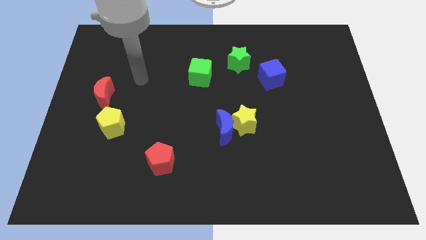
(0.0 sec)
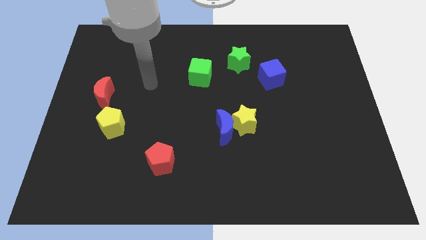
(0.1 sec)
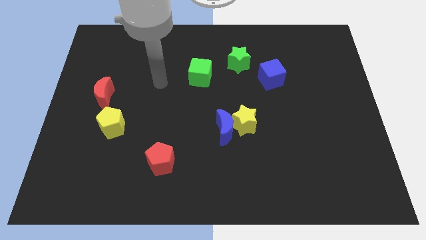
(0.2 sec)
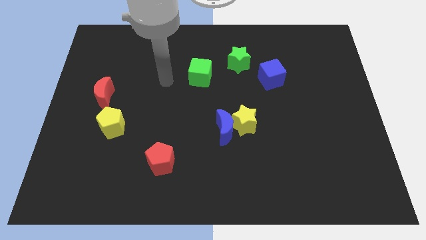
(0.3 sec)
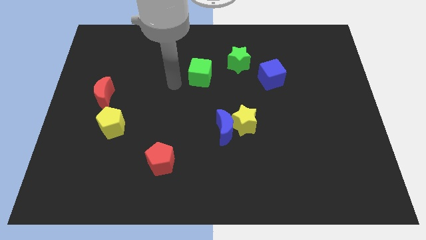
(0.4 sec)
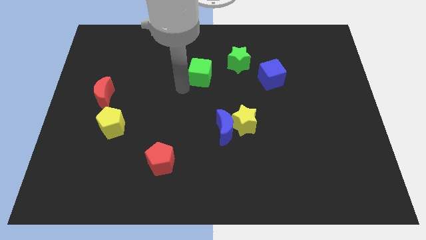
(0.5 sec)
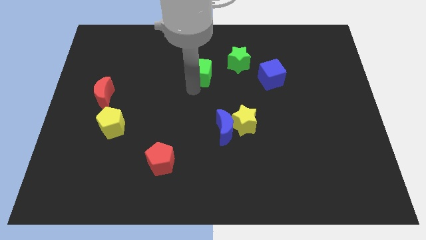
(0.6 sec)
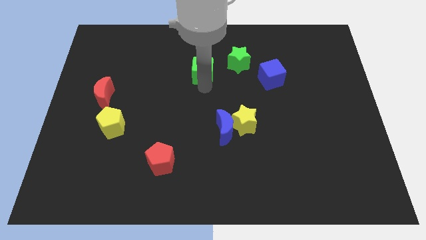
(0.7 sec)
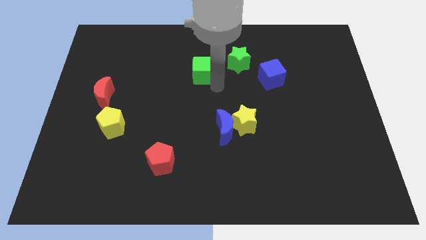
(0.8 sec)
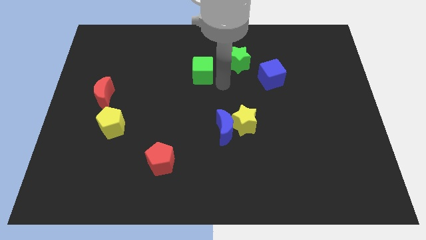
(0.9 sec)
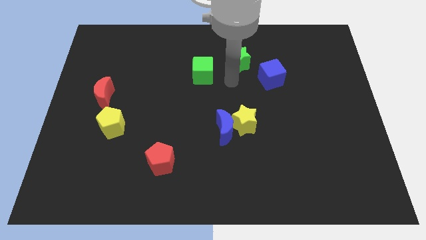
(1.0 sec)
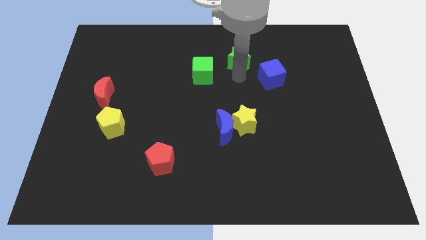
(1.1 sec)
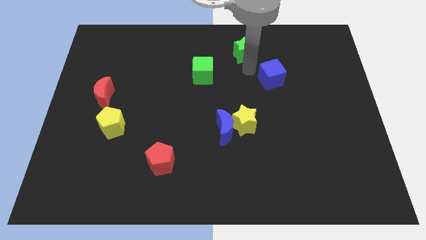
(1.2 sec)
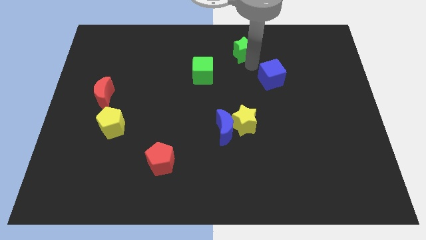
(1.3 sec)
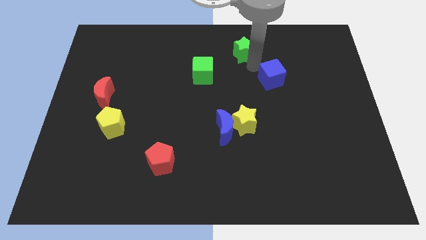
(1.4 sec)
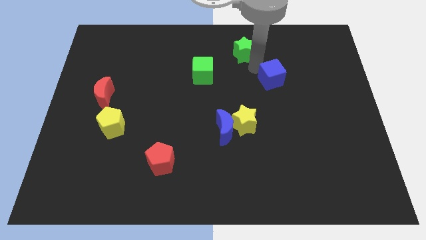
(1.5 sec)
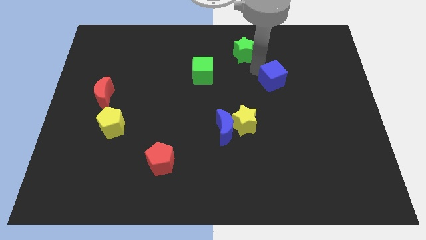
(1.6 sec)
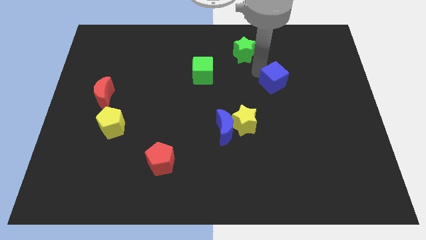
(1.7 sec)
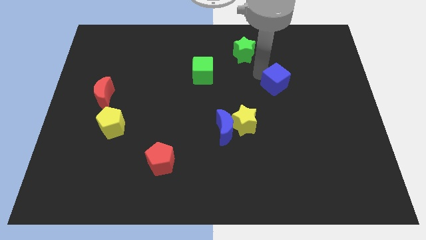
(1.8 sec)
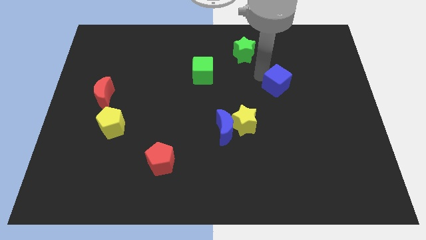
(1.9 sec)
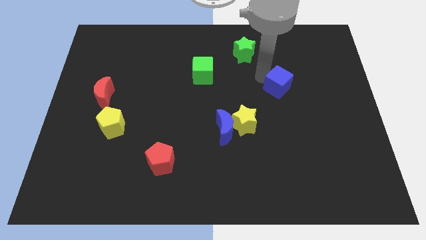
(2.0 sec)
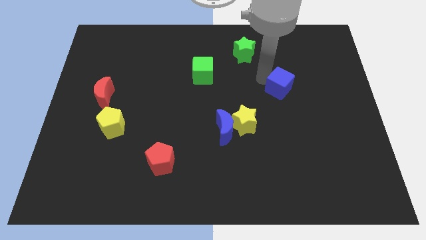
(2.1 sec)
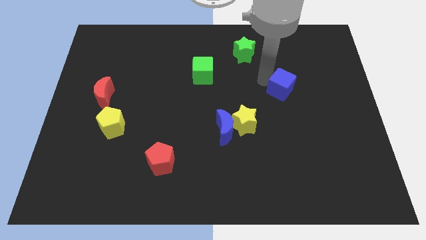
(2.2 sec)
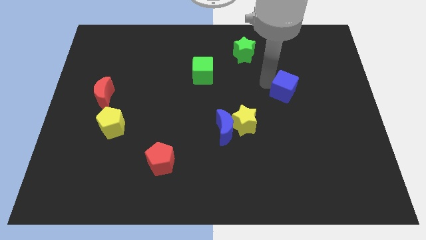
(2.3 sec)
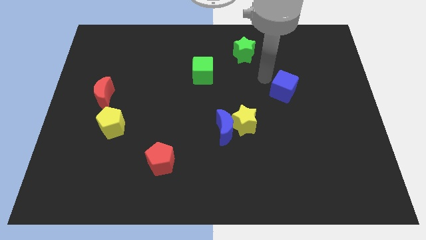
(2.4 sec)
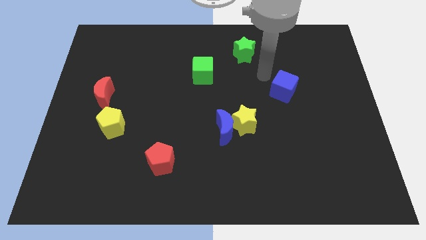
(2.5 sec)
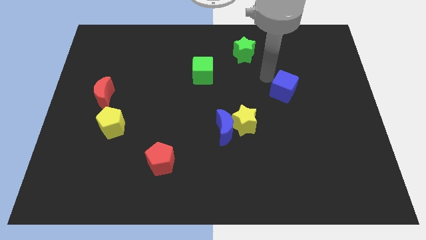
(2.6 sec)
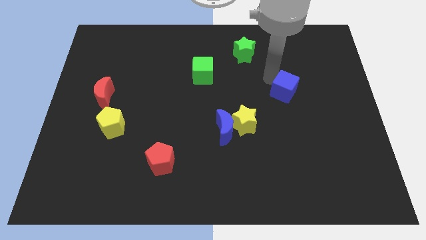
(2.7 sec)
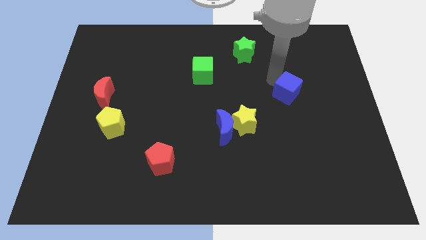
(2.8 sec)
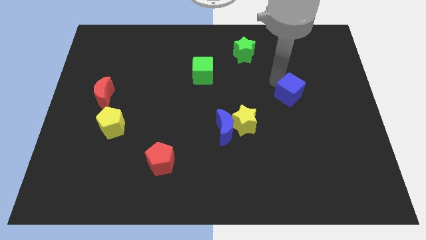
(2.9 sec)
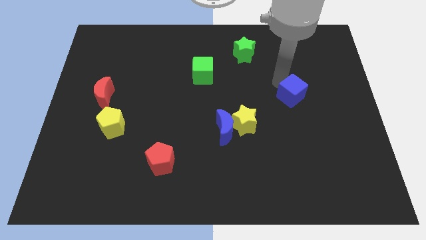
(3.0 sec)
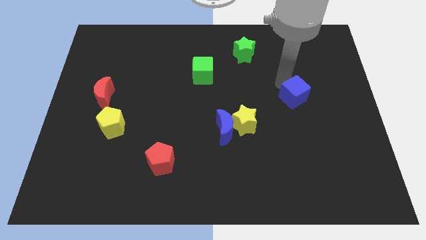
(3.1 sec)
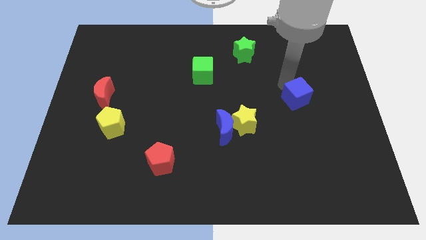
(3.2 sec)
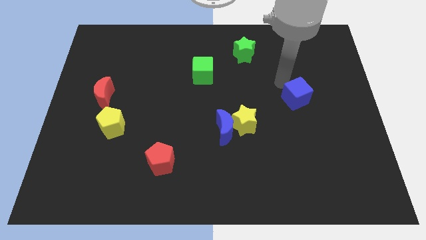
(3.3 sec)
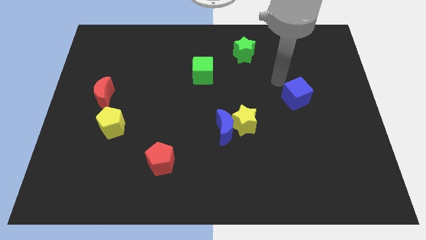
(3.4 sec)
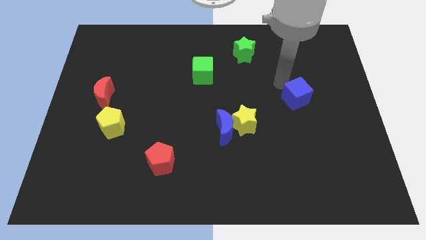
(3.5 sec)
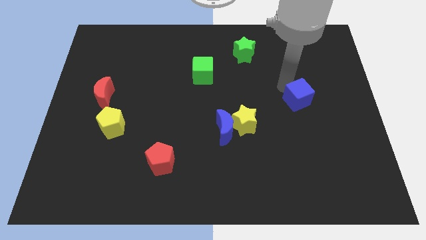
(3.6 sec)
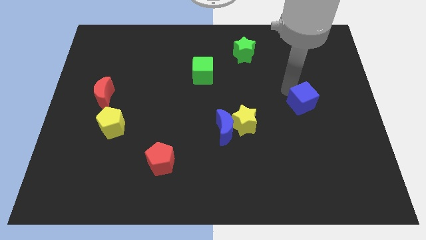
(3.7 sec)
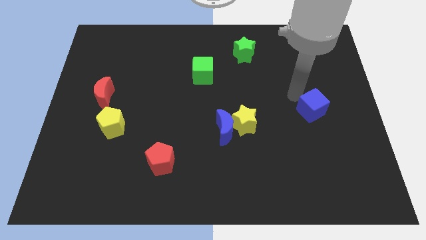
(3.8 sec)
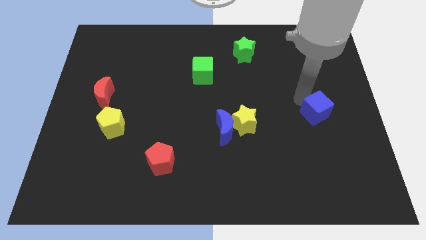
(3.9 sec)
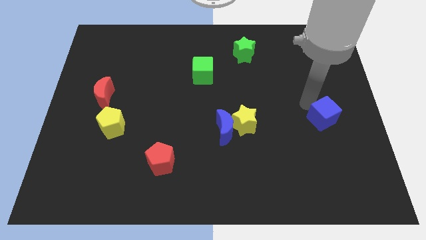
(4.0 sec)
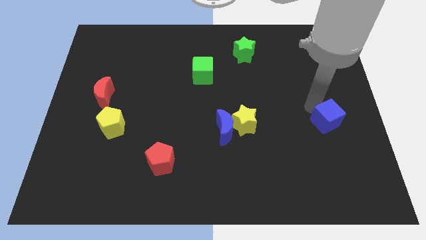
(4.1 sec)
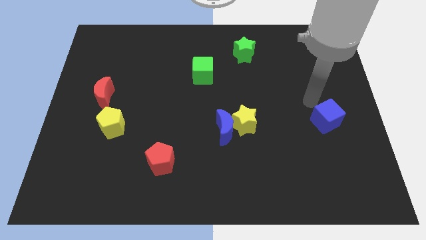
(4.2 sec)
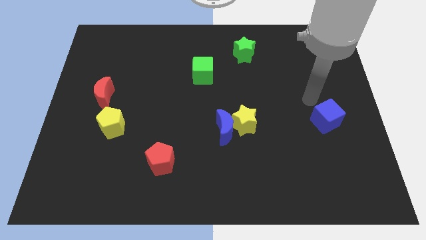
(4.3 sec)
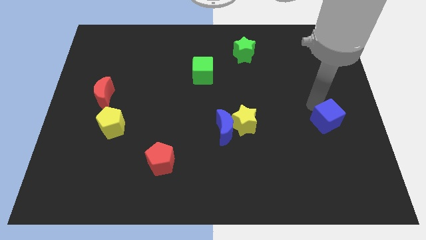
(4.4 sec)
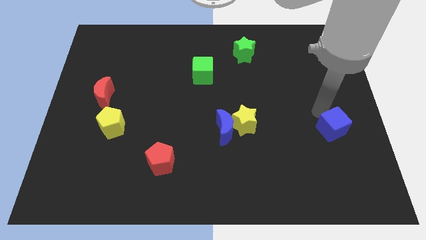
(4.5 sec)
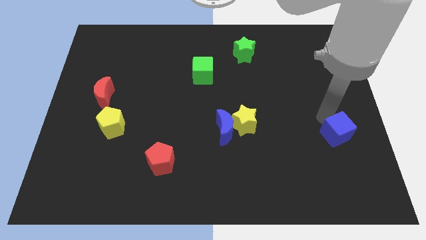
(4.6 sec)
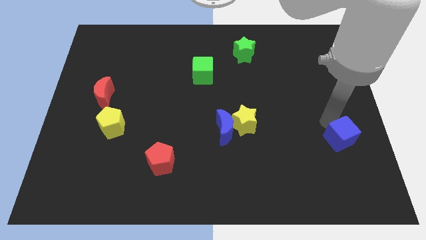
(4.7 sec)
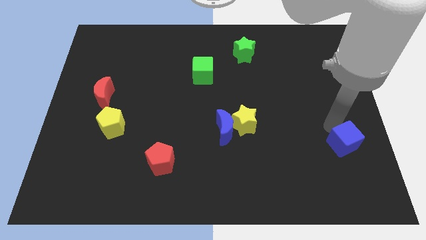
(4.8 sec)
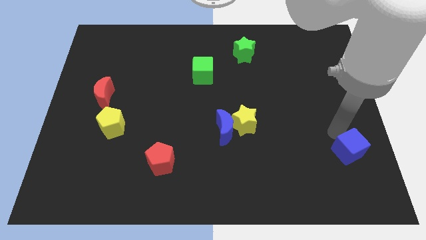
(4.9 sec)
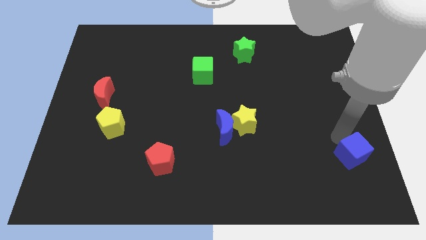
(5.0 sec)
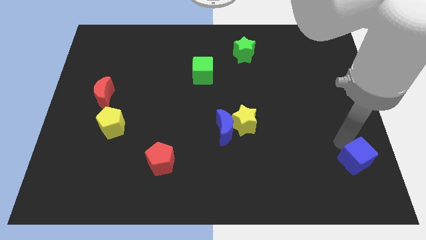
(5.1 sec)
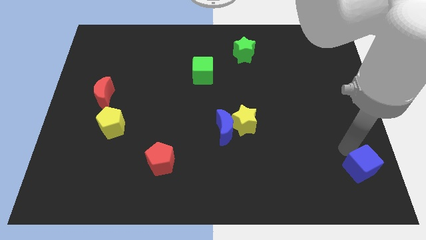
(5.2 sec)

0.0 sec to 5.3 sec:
move the blue cube to the lower right corner

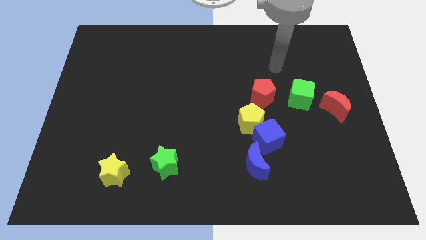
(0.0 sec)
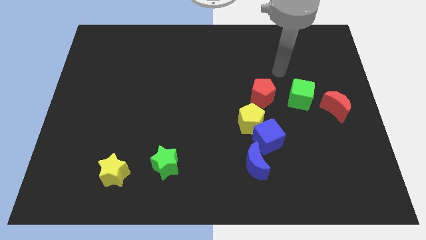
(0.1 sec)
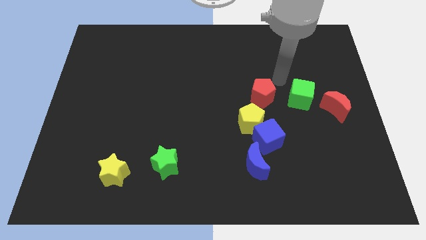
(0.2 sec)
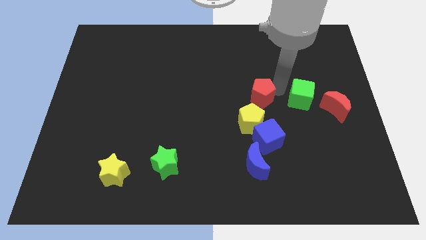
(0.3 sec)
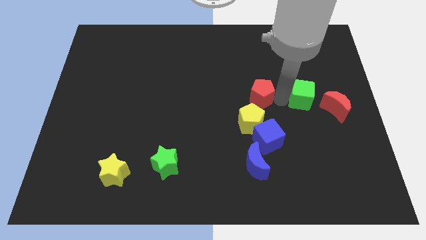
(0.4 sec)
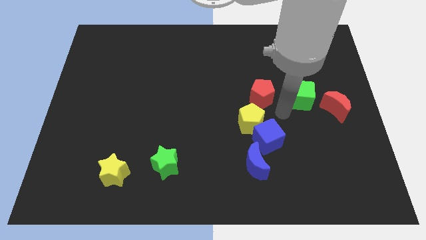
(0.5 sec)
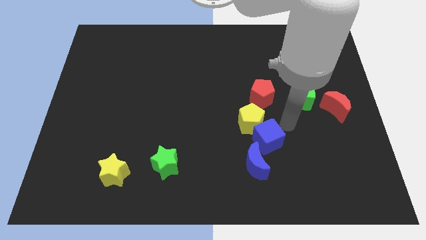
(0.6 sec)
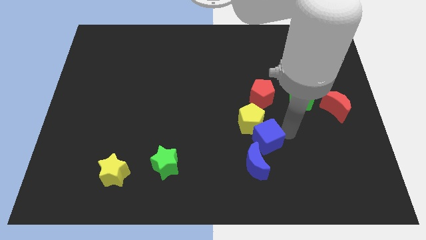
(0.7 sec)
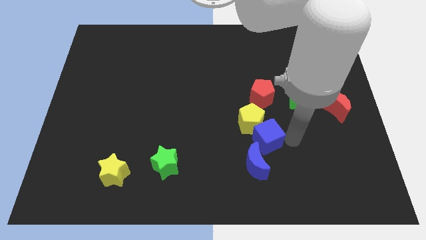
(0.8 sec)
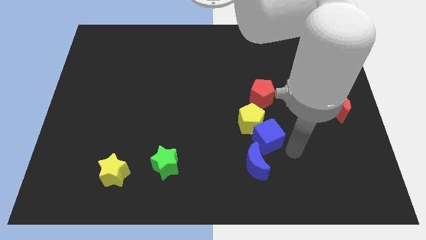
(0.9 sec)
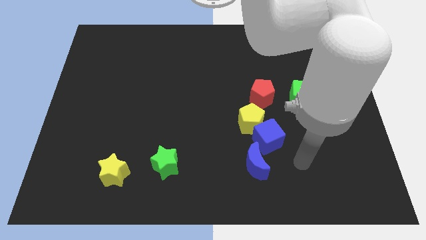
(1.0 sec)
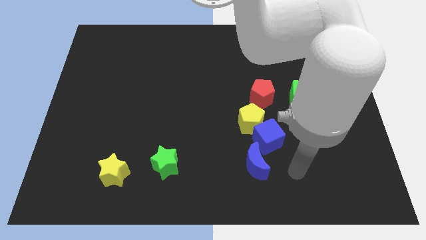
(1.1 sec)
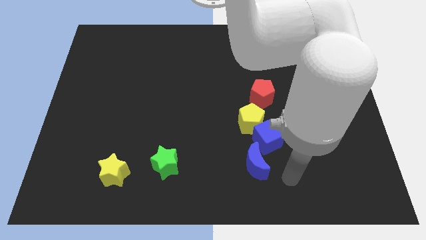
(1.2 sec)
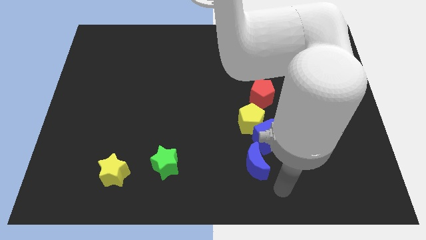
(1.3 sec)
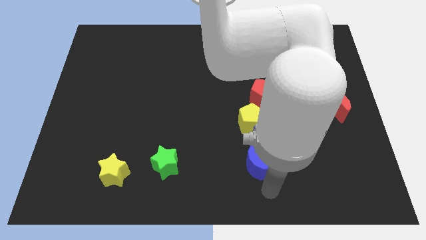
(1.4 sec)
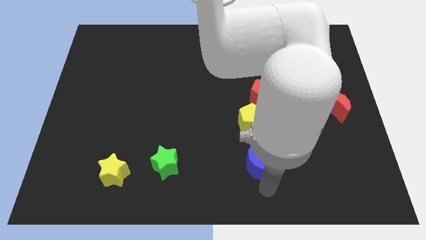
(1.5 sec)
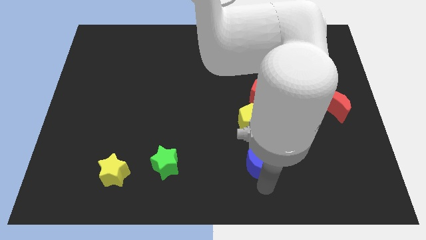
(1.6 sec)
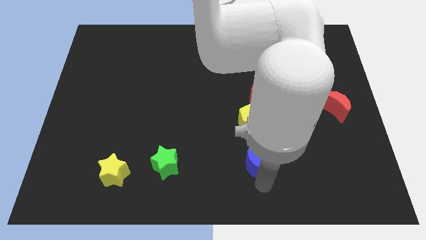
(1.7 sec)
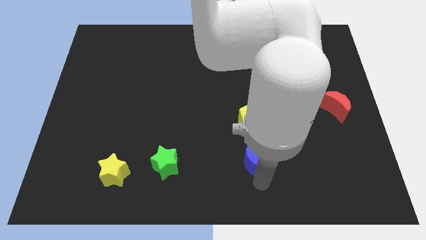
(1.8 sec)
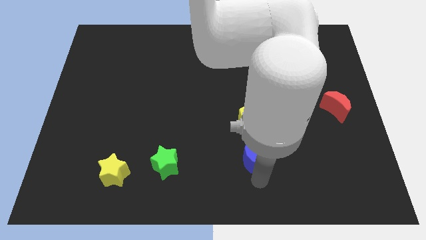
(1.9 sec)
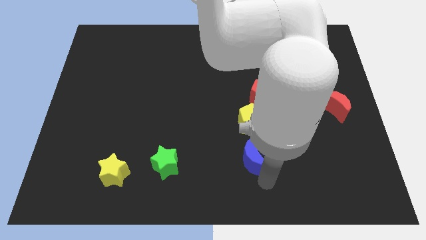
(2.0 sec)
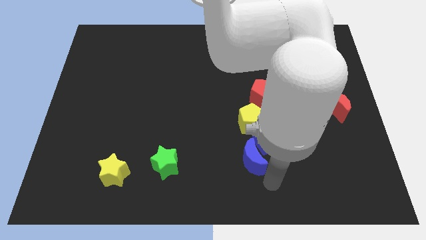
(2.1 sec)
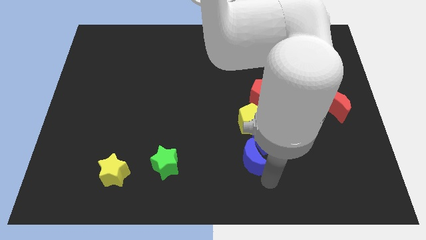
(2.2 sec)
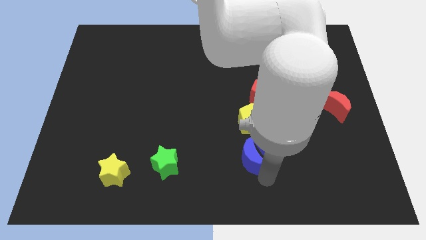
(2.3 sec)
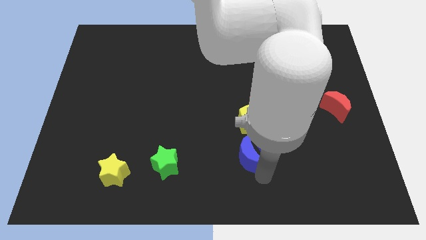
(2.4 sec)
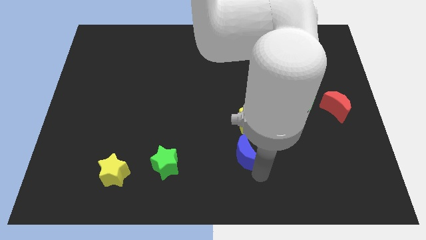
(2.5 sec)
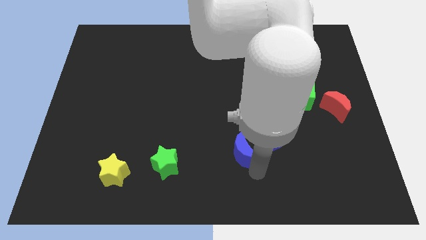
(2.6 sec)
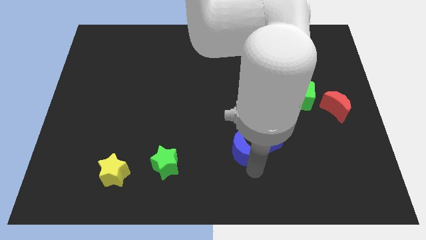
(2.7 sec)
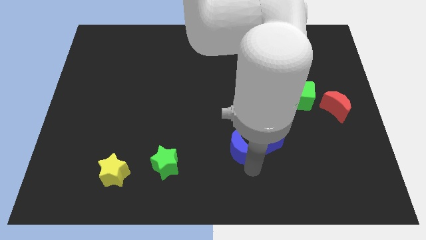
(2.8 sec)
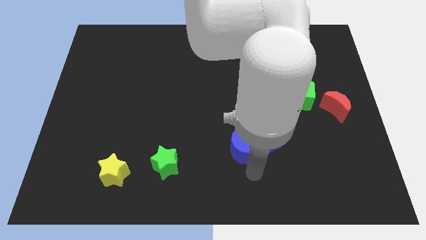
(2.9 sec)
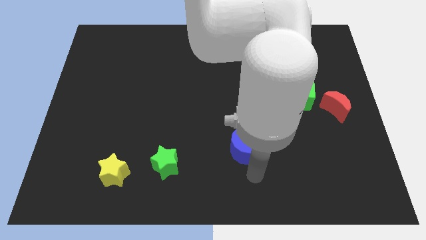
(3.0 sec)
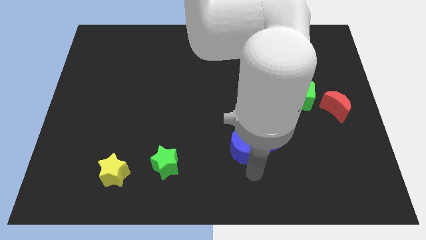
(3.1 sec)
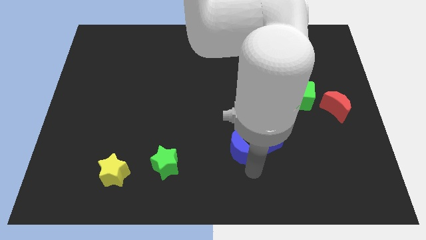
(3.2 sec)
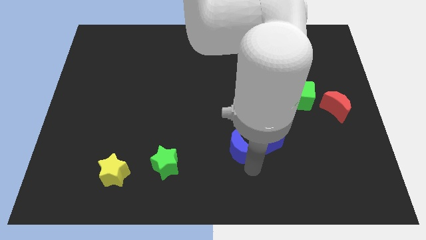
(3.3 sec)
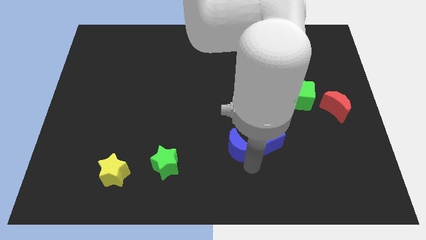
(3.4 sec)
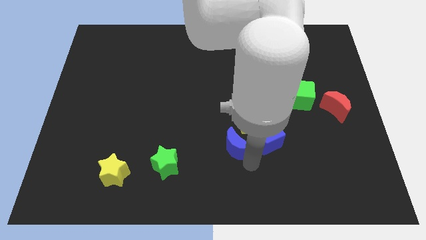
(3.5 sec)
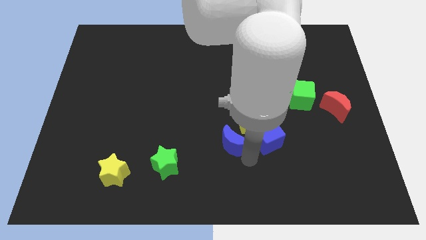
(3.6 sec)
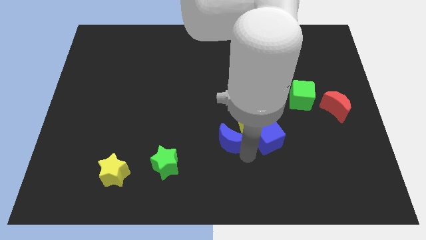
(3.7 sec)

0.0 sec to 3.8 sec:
move the blue moon to the middle of the board
